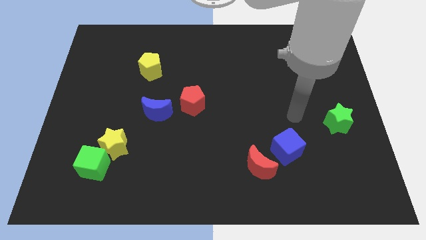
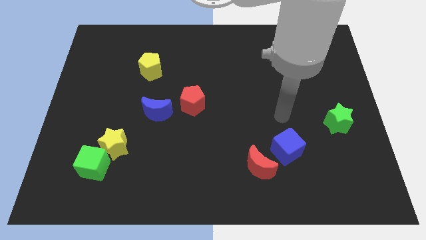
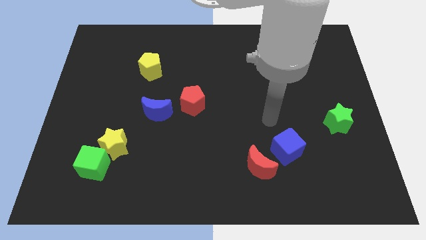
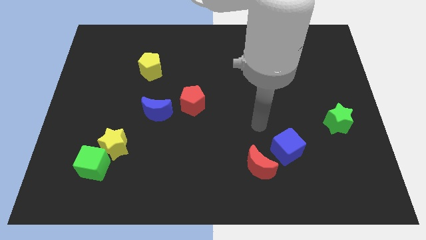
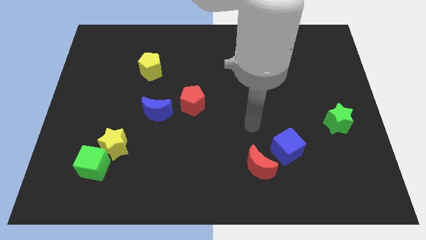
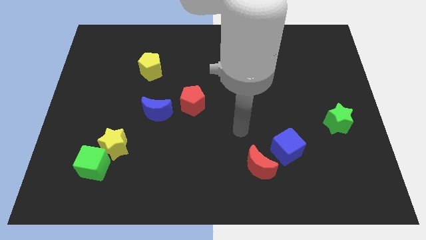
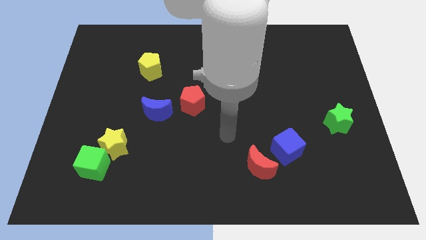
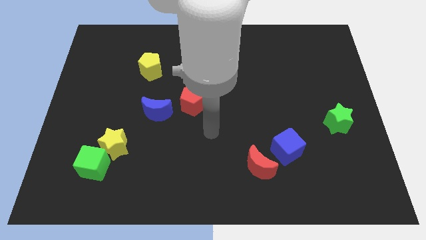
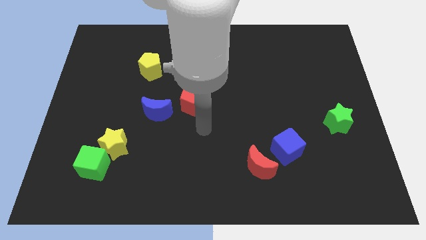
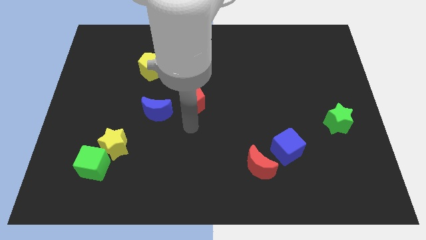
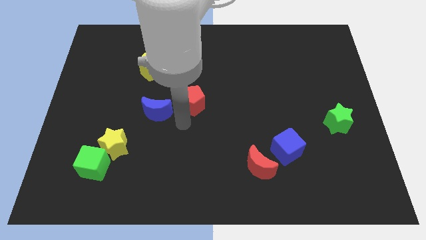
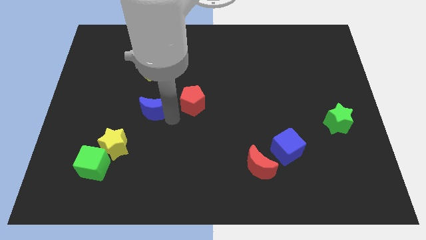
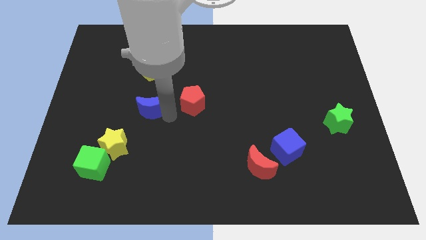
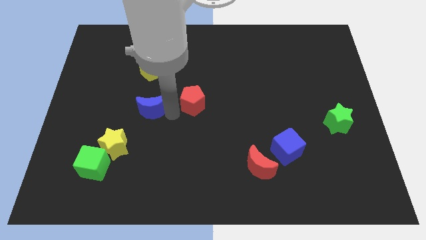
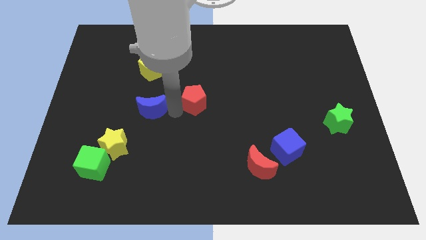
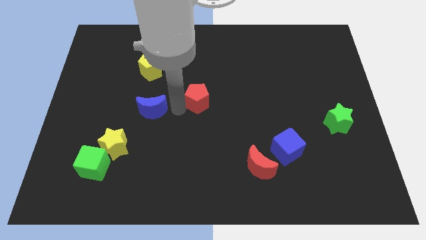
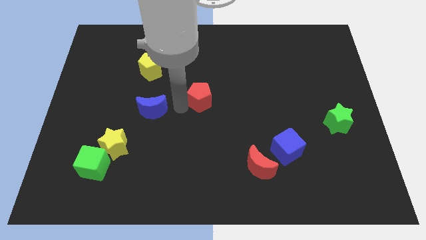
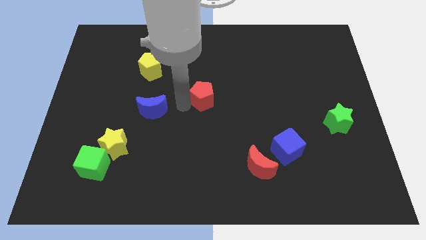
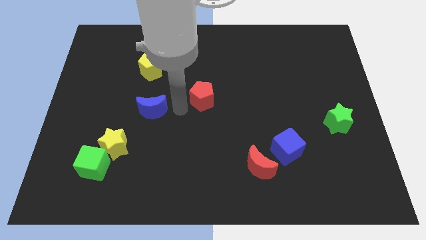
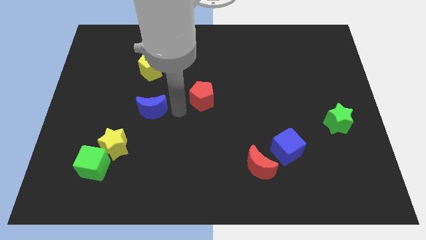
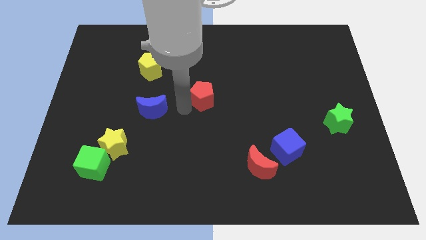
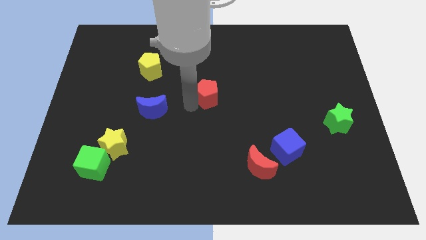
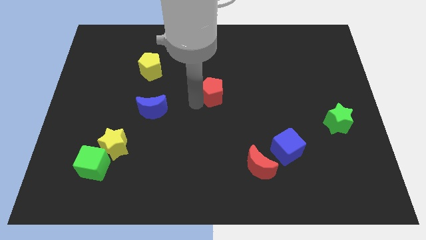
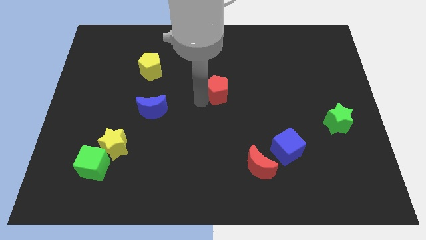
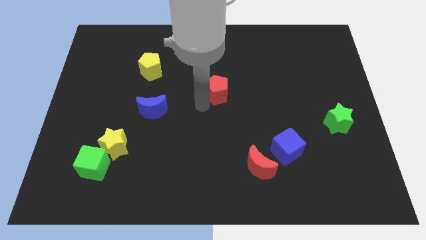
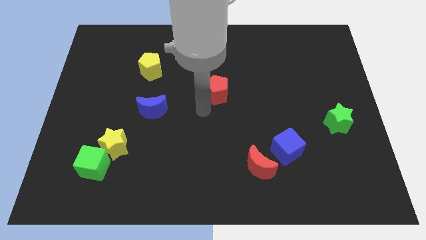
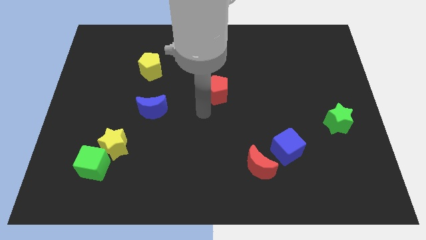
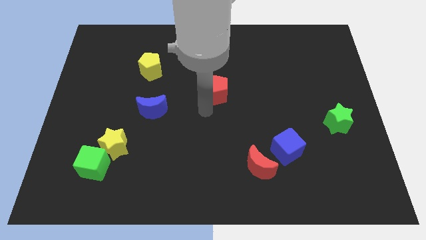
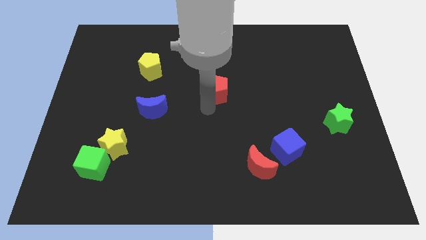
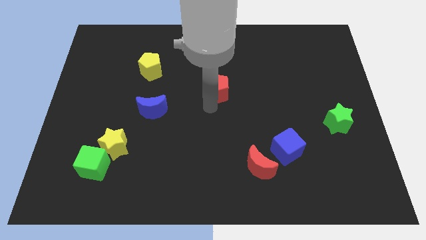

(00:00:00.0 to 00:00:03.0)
move the red pentagon diagonally upwards and right slightly

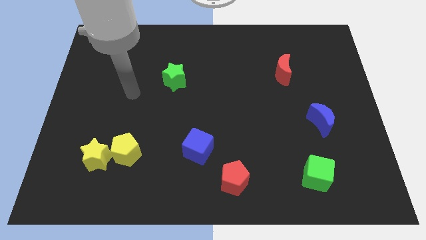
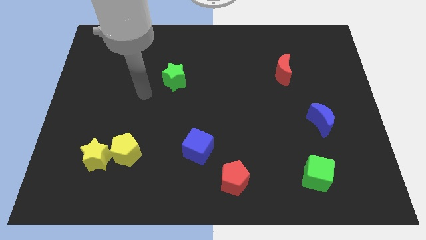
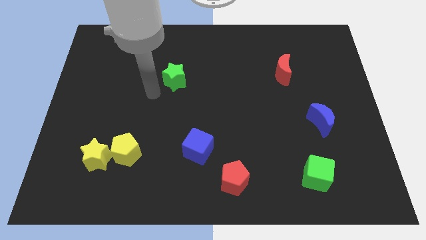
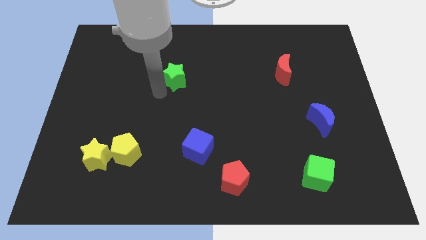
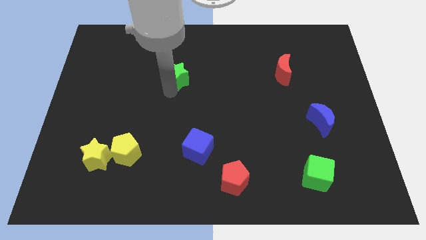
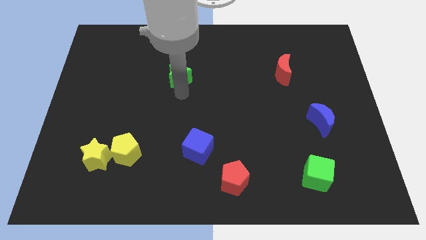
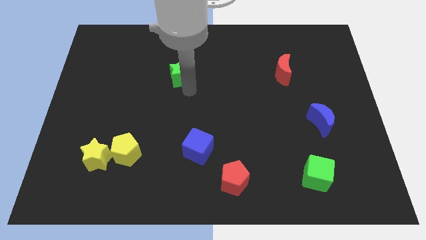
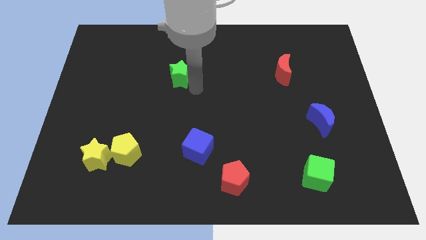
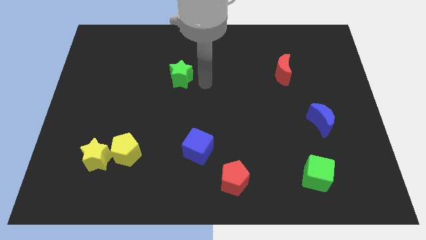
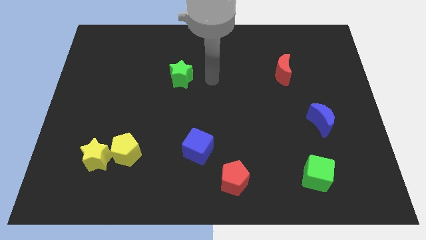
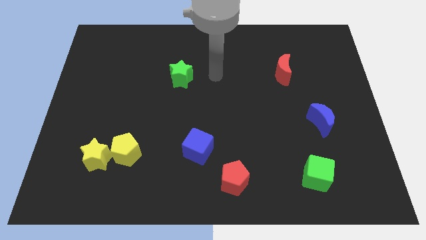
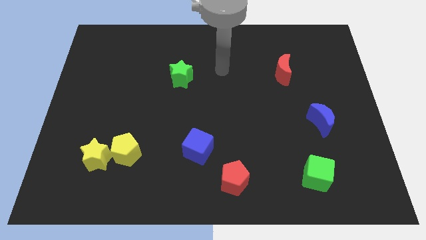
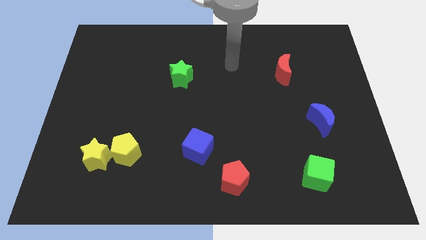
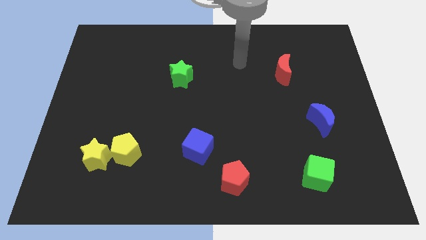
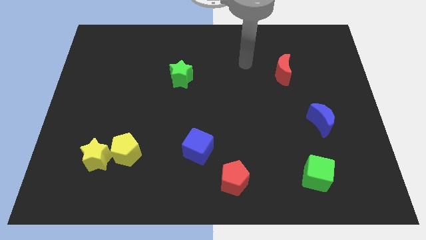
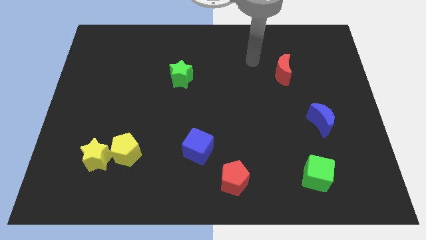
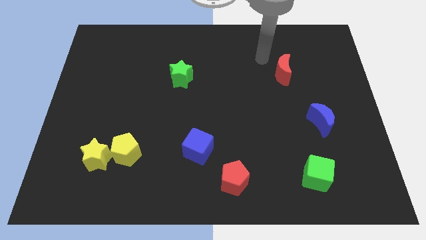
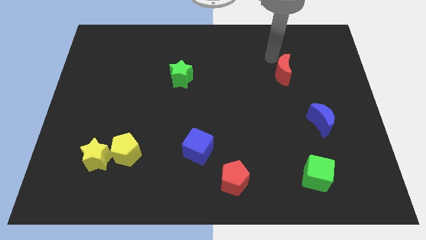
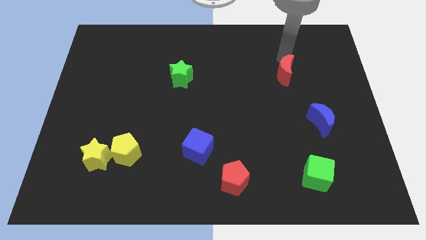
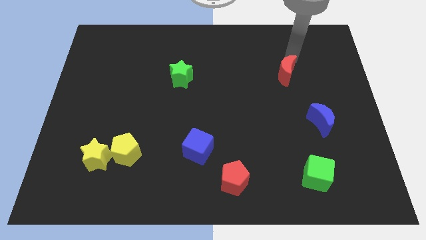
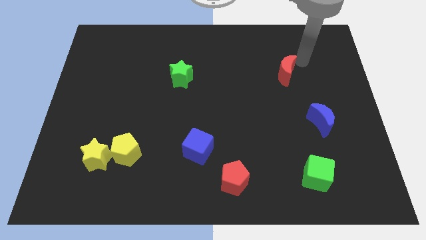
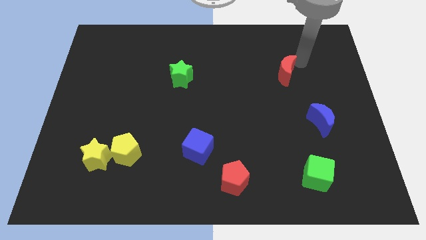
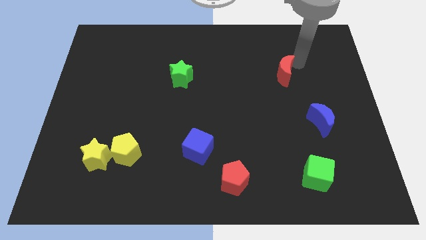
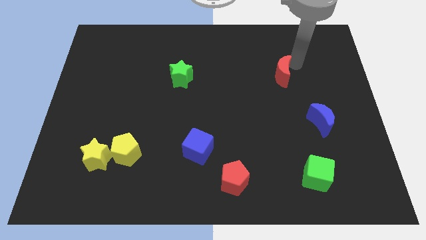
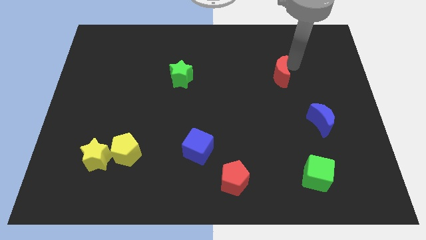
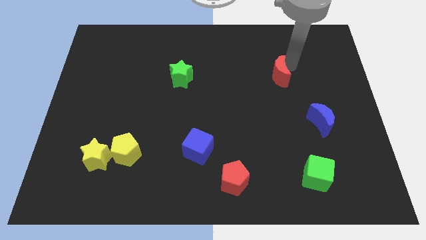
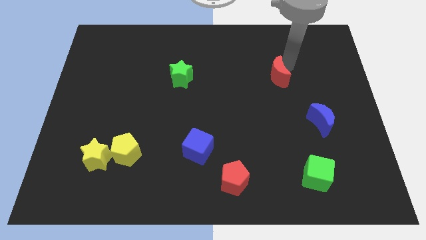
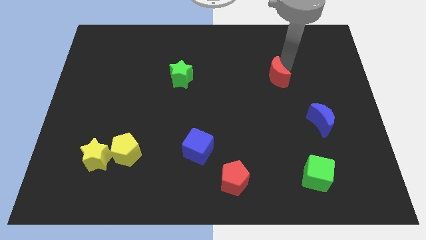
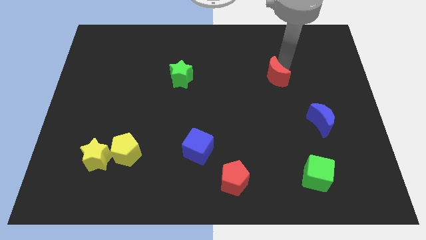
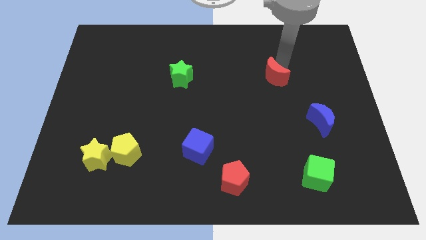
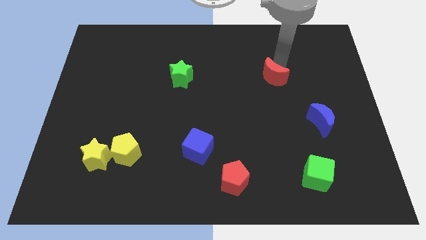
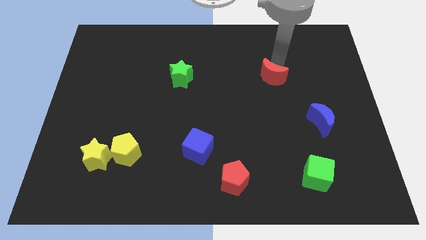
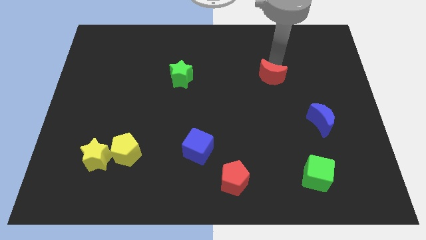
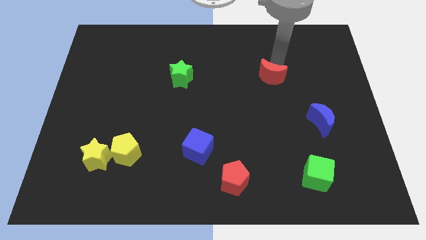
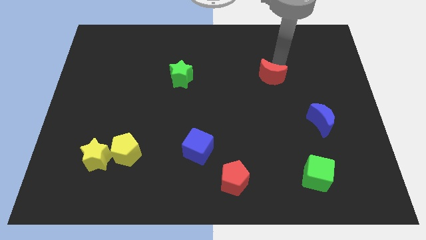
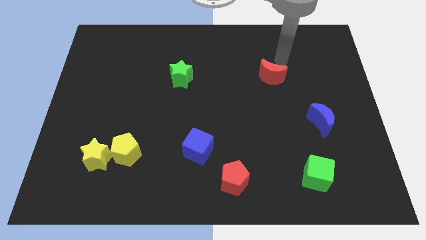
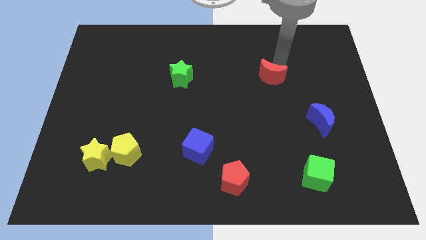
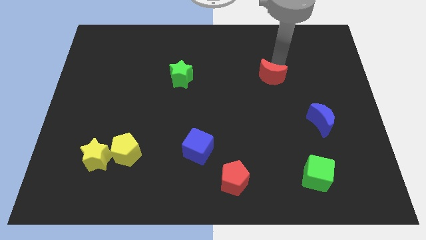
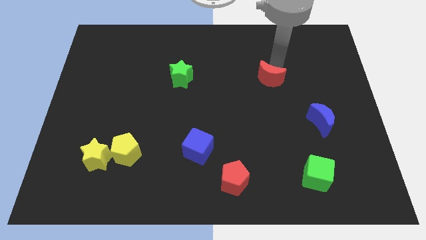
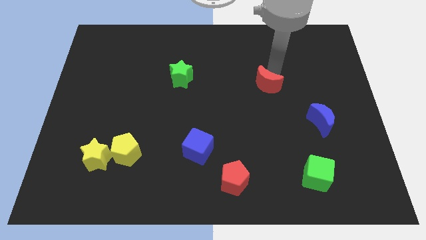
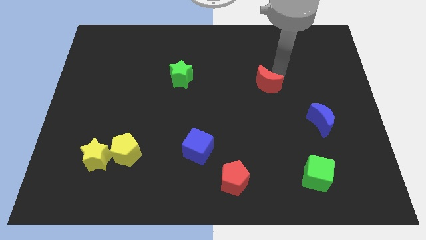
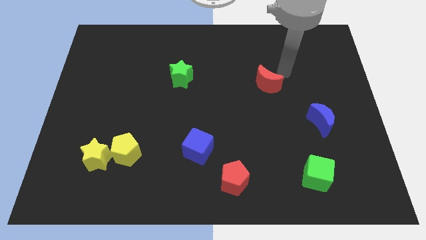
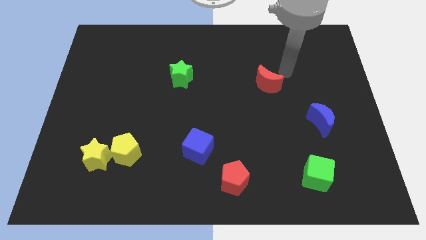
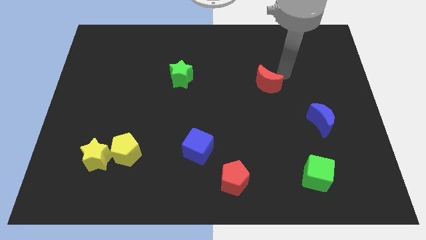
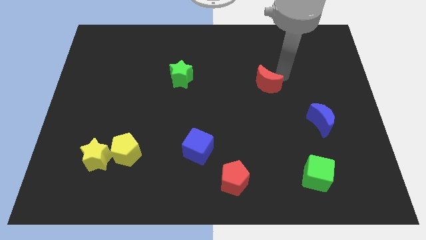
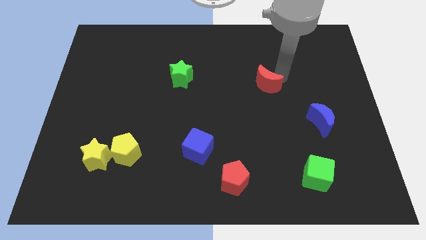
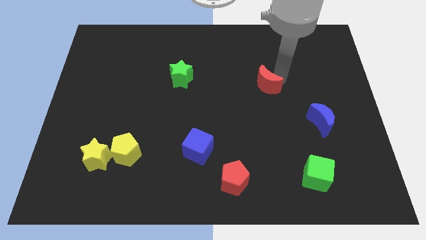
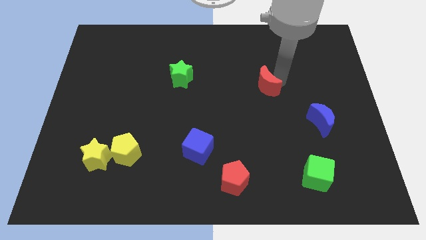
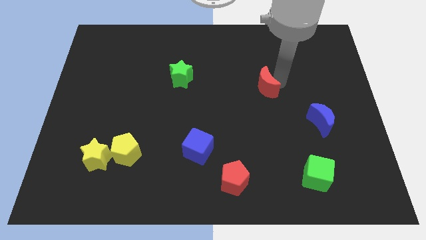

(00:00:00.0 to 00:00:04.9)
push the red moon diagonally downwards and left a little bit
